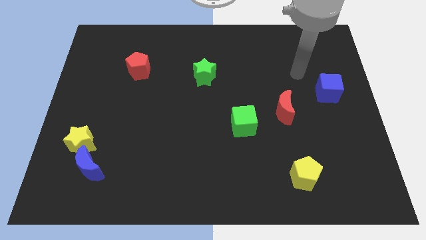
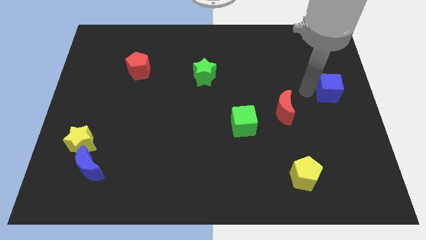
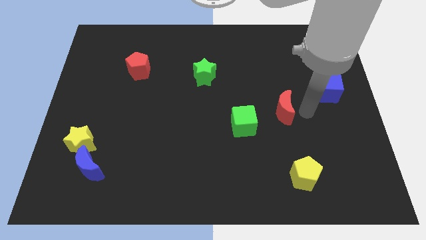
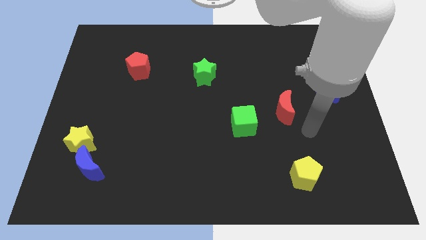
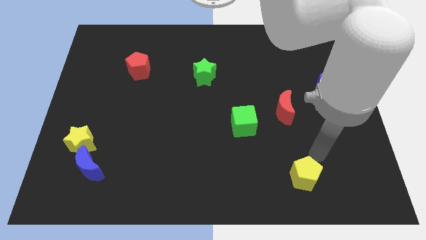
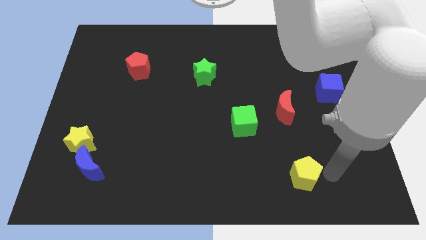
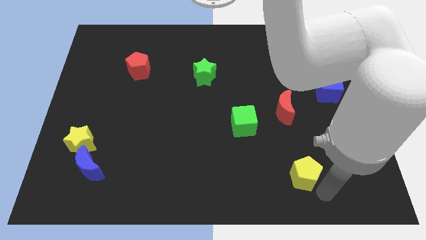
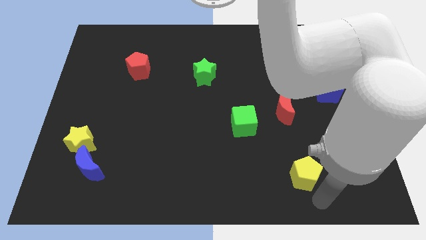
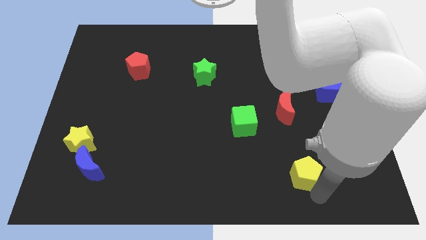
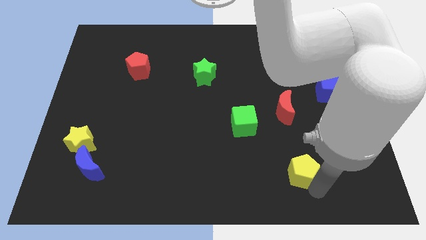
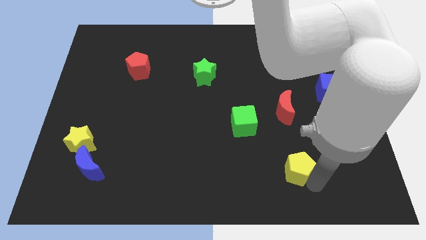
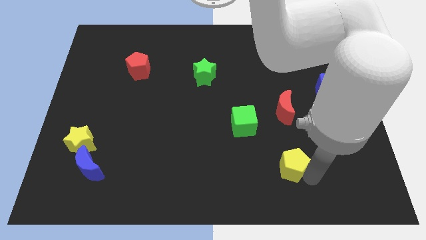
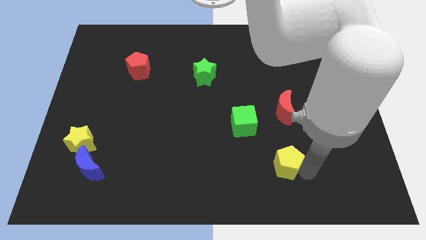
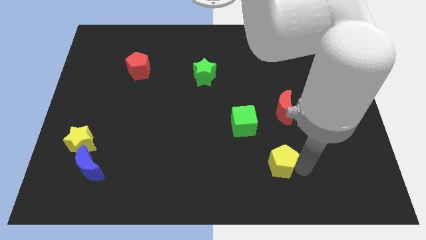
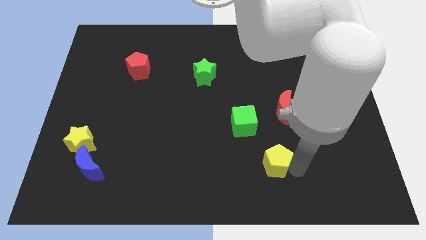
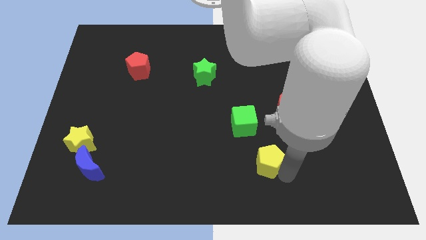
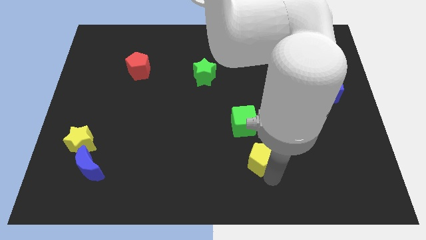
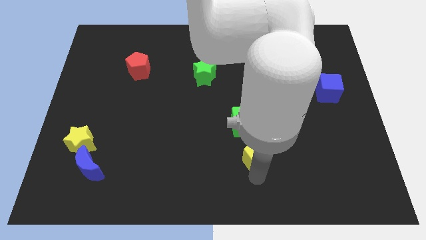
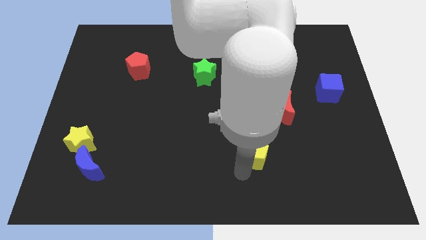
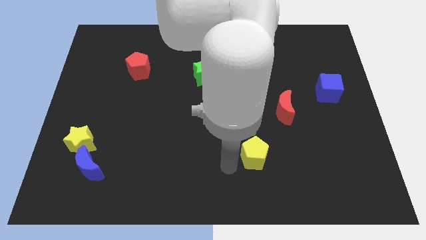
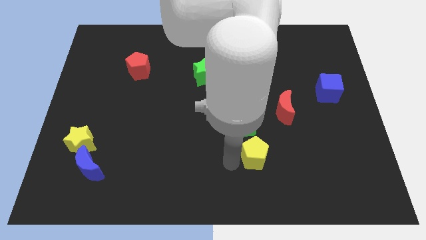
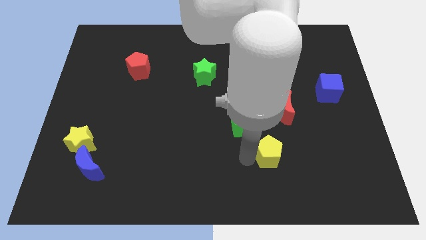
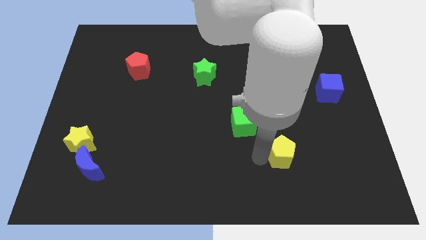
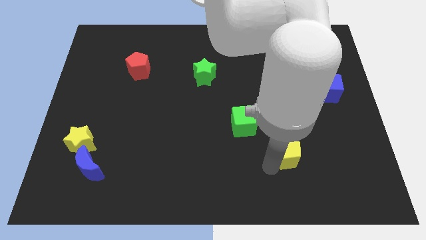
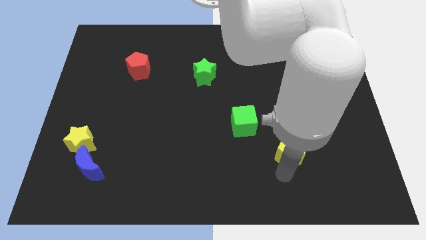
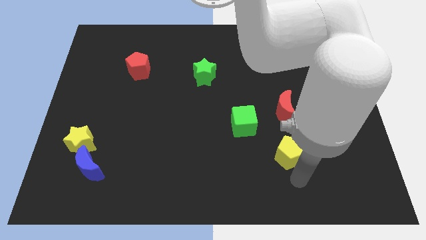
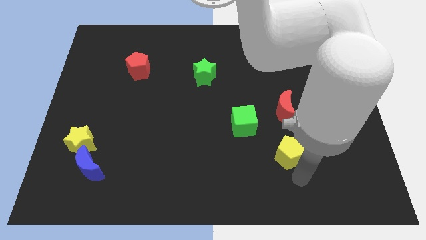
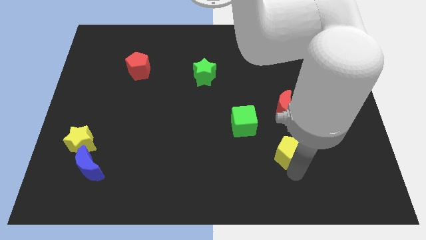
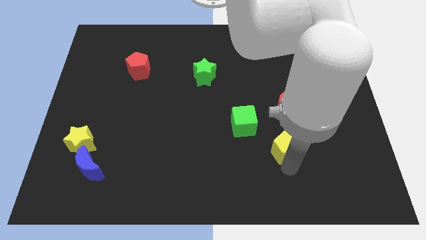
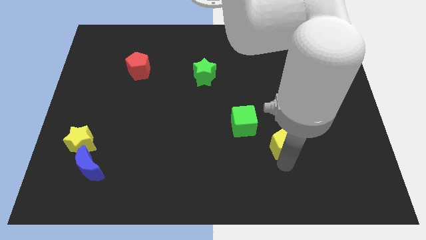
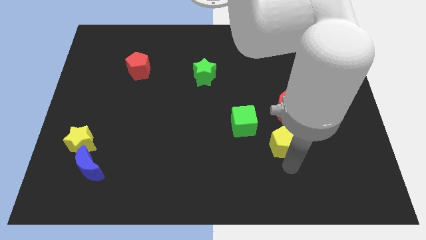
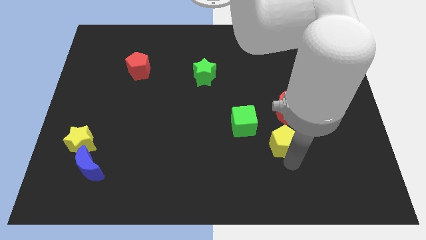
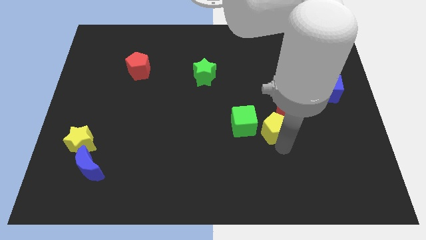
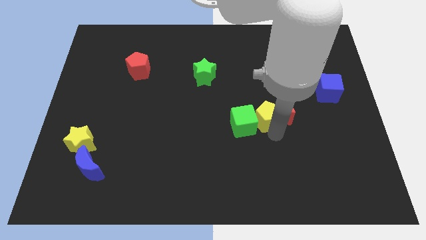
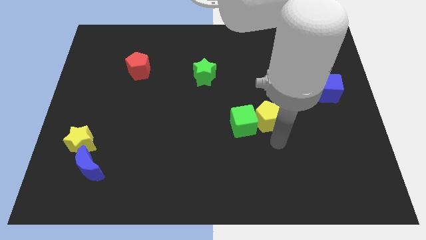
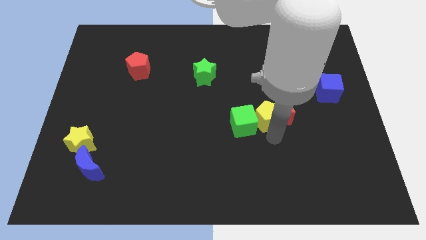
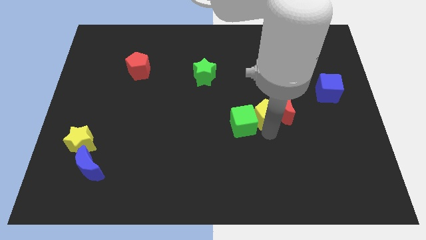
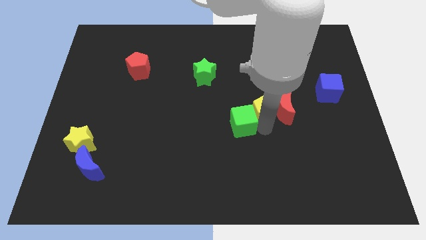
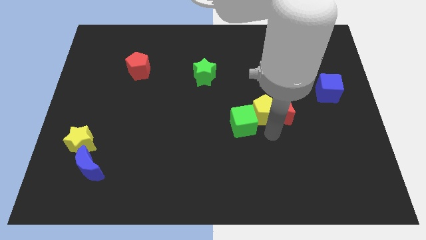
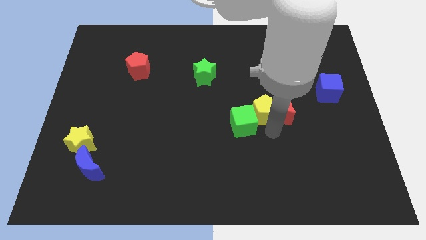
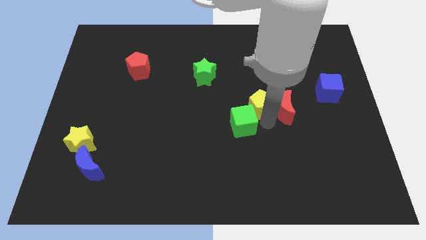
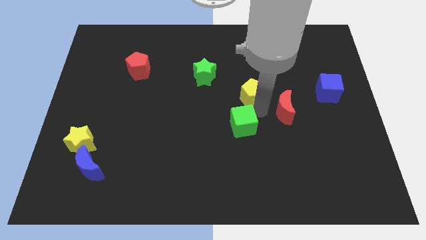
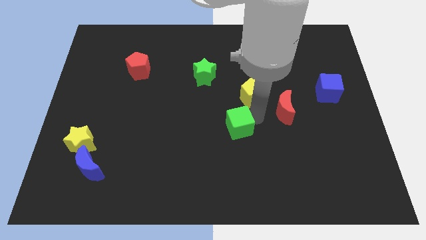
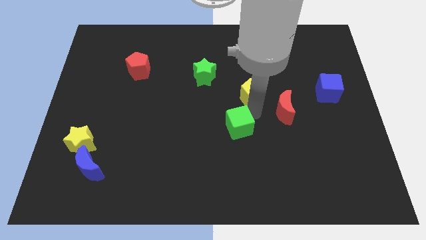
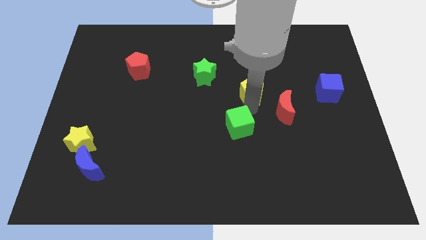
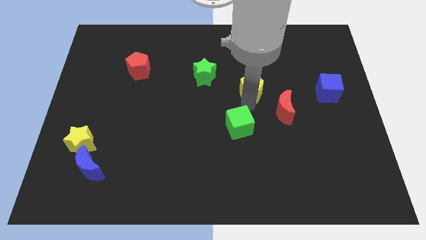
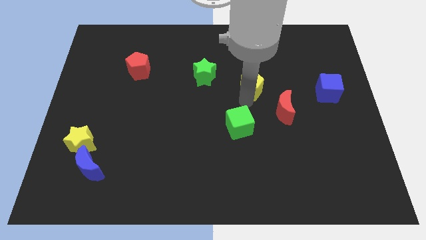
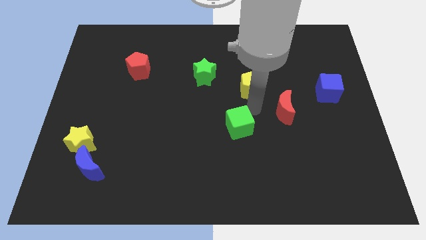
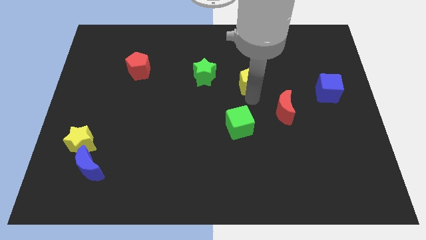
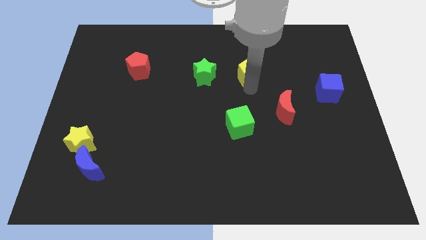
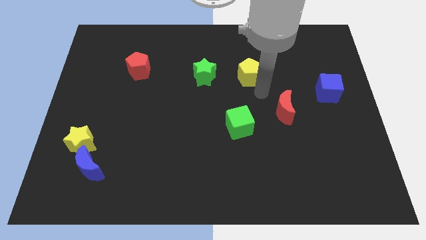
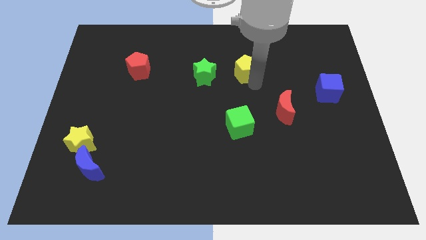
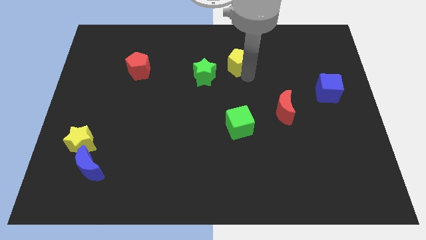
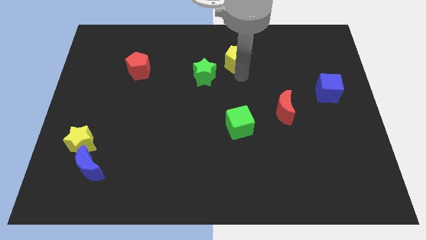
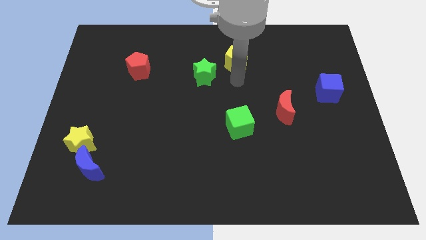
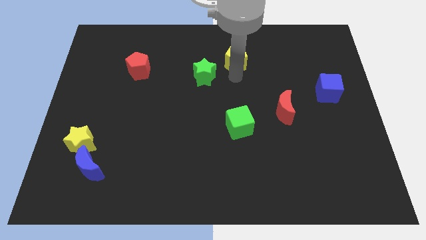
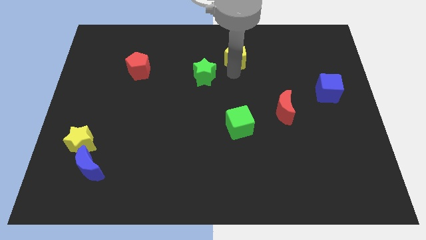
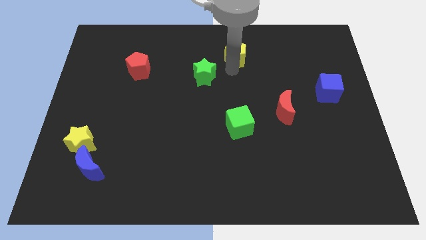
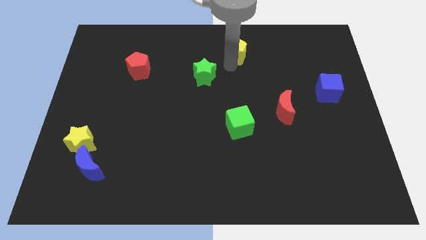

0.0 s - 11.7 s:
slide the yellow pentagon to the top side
